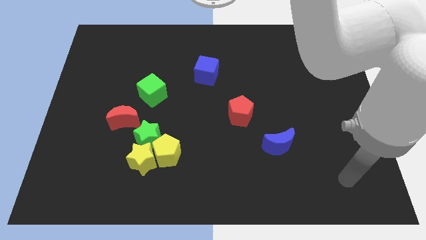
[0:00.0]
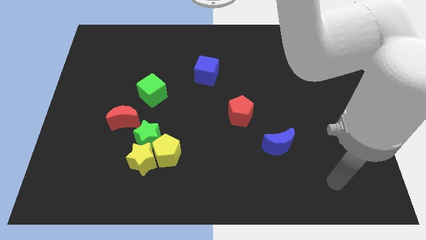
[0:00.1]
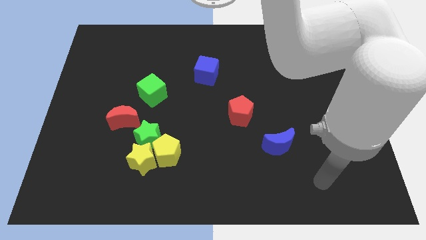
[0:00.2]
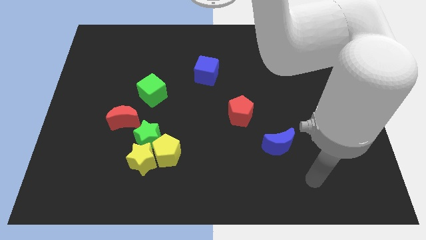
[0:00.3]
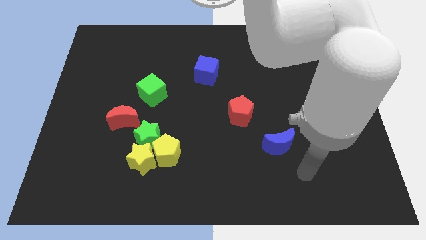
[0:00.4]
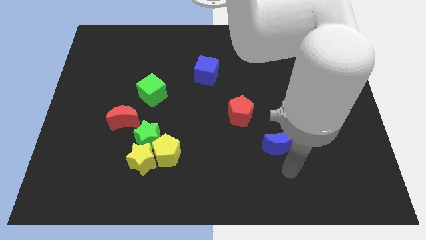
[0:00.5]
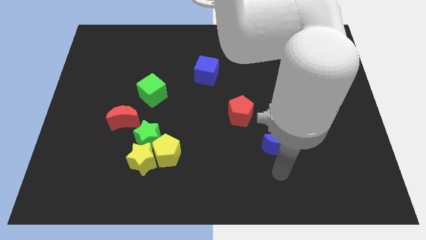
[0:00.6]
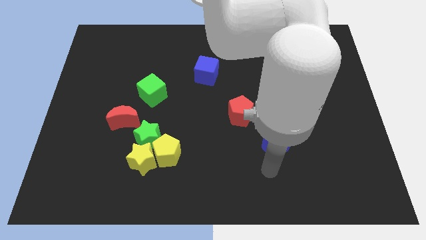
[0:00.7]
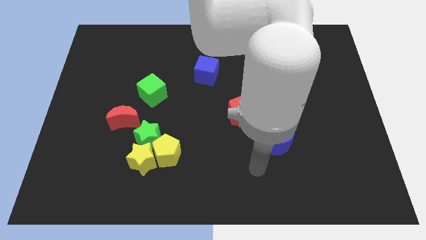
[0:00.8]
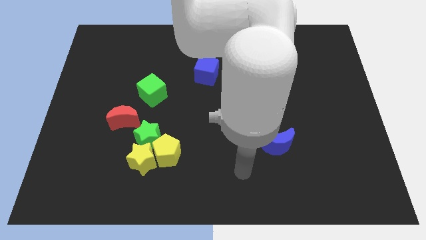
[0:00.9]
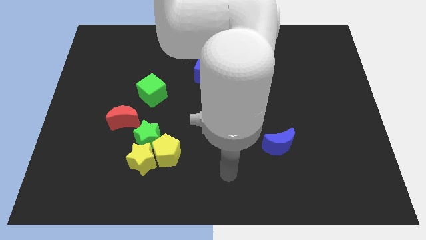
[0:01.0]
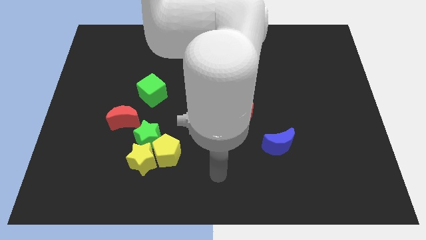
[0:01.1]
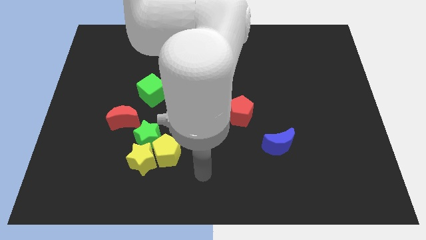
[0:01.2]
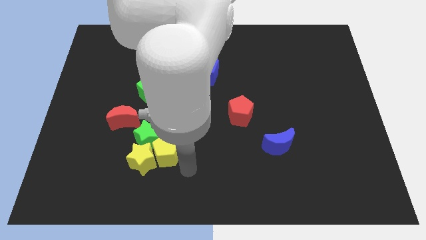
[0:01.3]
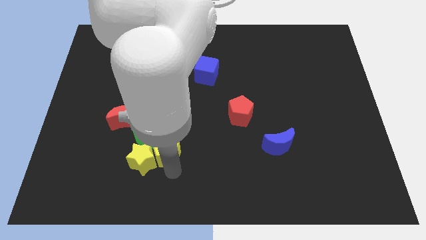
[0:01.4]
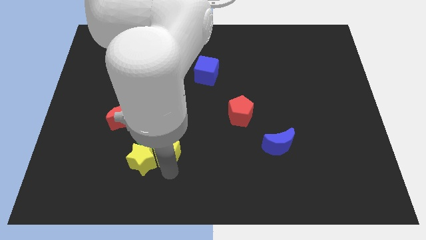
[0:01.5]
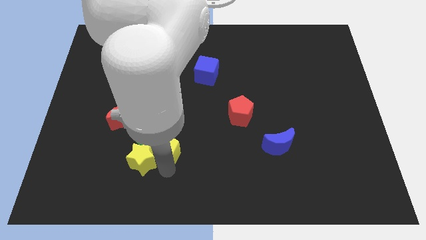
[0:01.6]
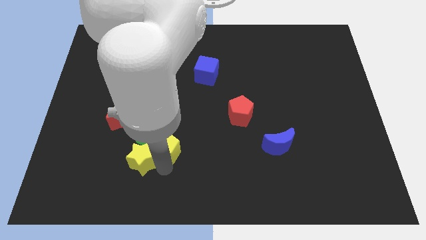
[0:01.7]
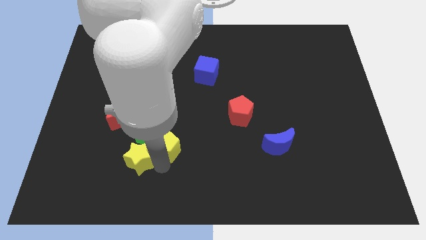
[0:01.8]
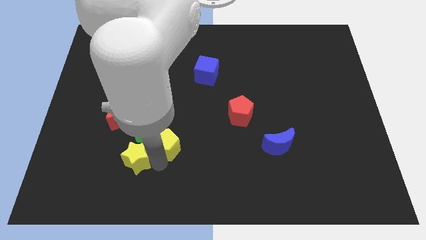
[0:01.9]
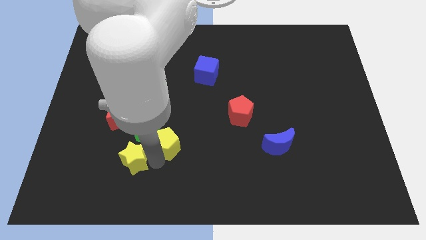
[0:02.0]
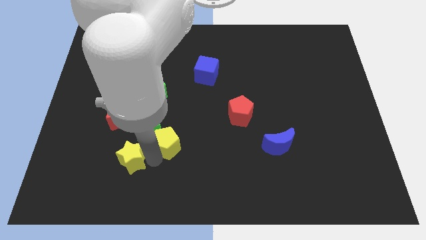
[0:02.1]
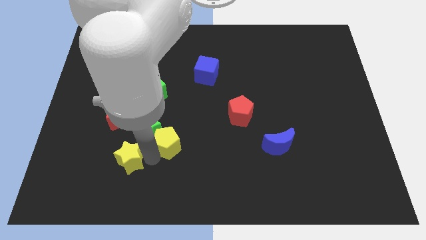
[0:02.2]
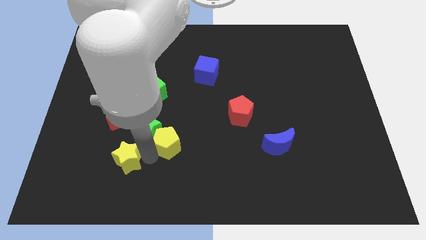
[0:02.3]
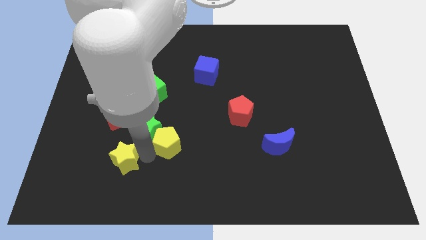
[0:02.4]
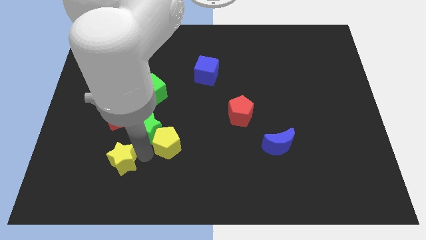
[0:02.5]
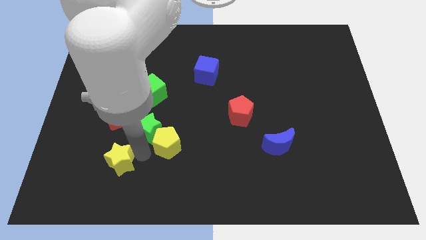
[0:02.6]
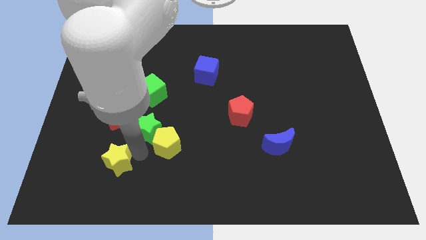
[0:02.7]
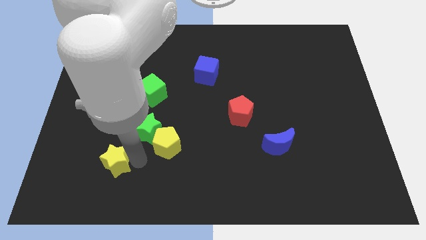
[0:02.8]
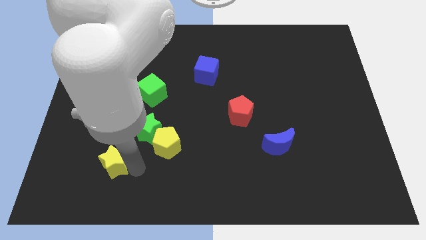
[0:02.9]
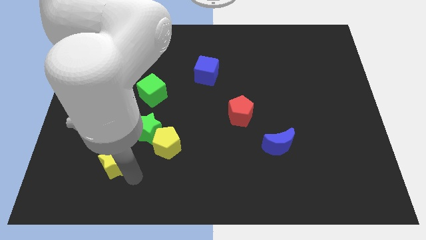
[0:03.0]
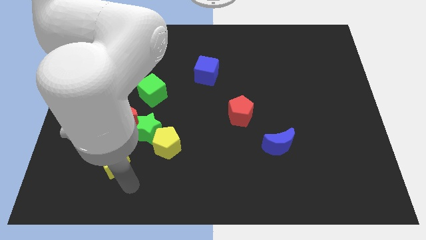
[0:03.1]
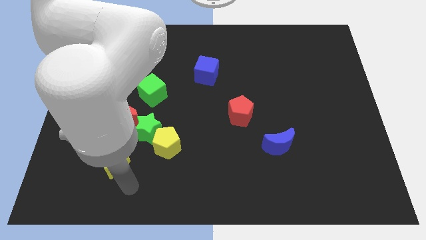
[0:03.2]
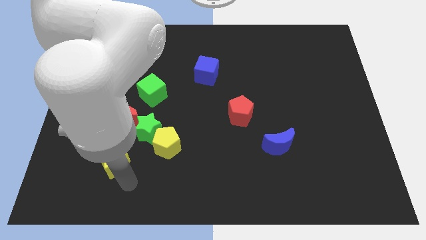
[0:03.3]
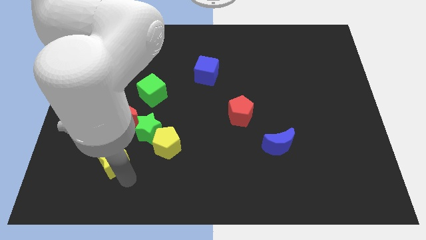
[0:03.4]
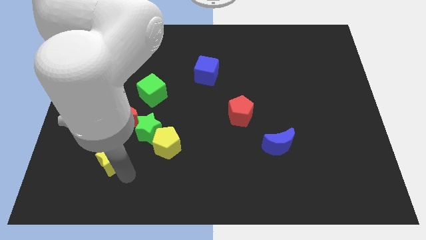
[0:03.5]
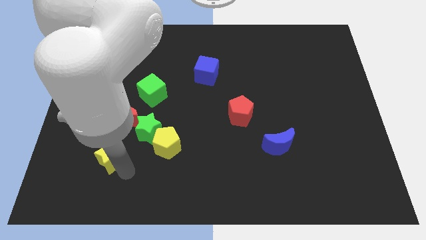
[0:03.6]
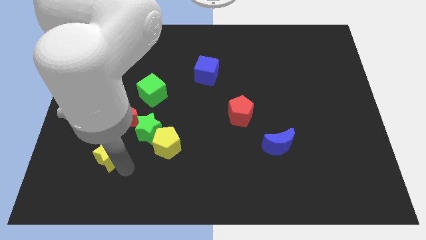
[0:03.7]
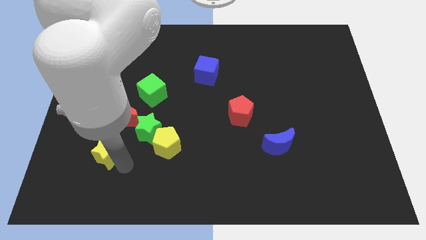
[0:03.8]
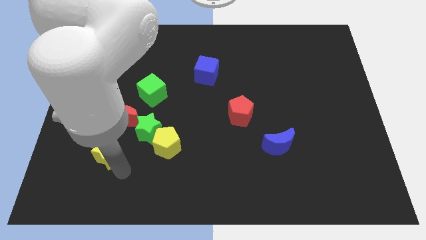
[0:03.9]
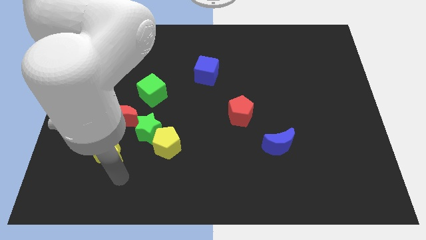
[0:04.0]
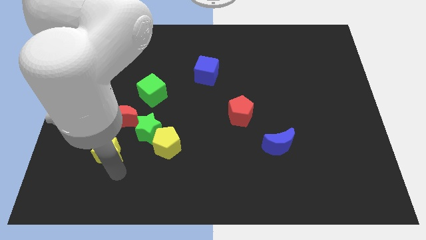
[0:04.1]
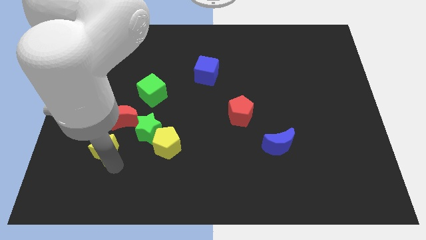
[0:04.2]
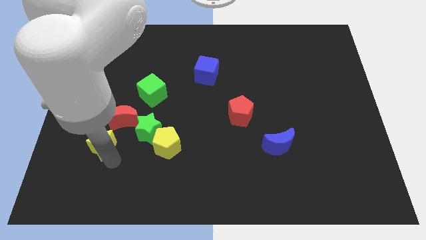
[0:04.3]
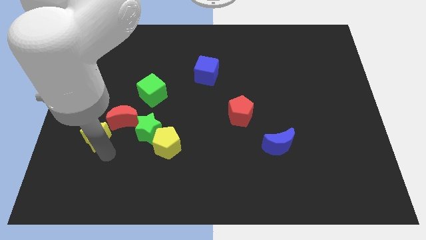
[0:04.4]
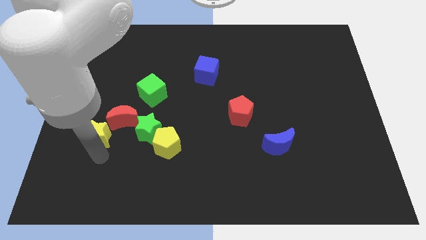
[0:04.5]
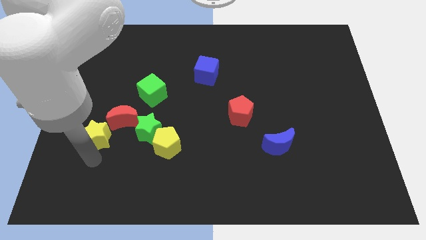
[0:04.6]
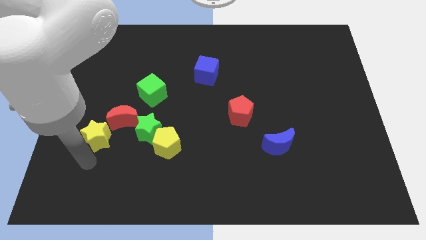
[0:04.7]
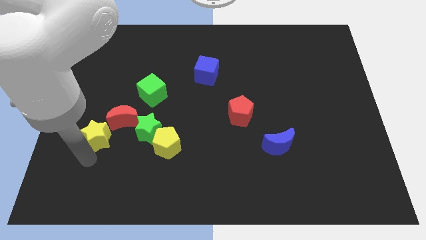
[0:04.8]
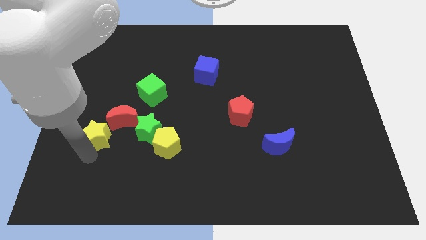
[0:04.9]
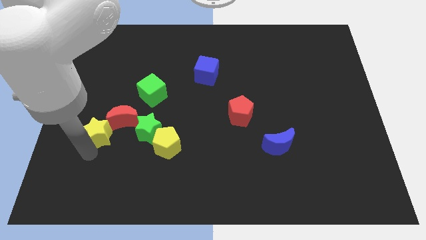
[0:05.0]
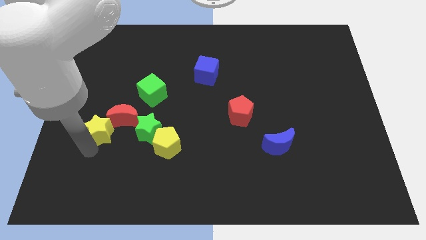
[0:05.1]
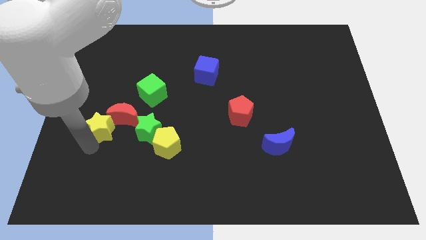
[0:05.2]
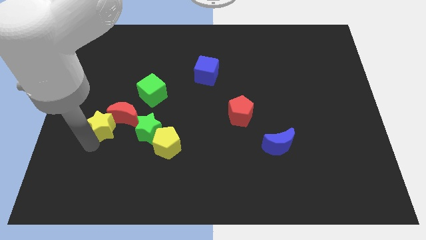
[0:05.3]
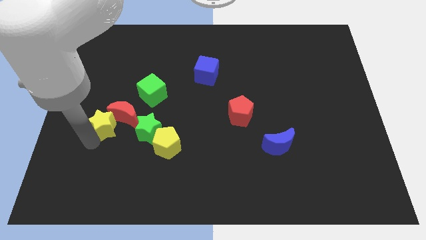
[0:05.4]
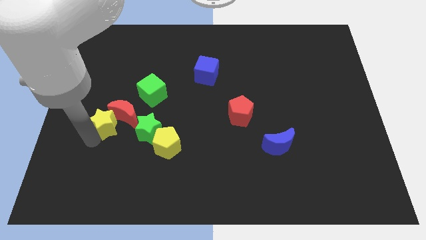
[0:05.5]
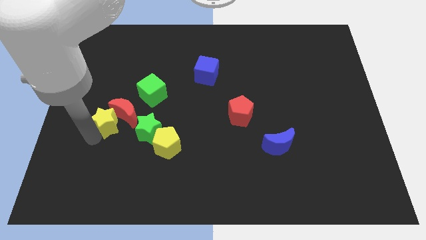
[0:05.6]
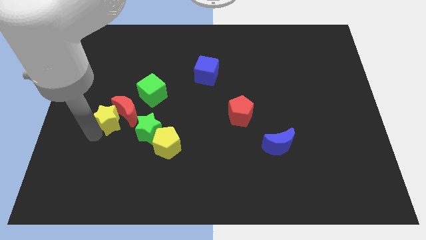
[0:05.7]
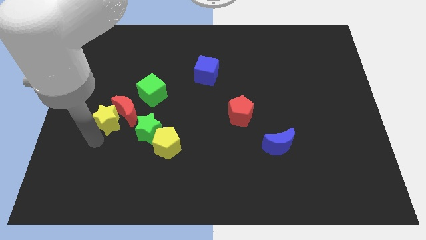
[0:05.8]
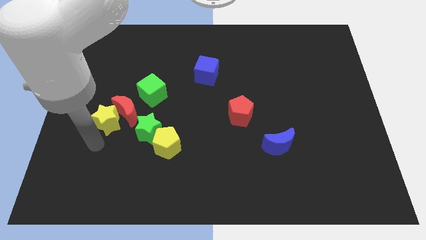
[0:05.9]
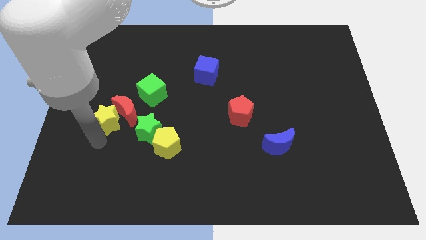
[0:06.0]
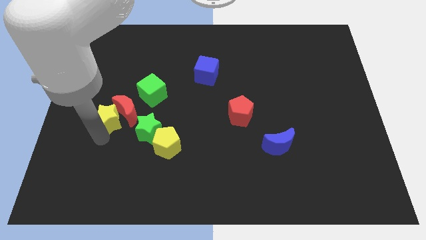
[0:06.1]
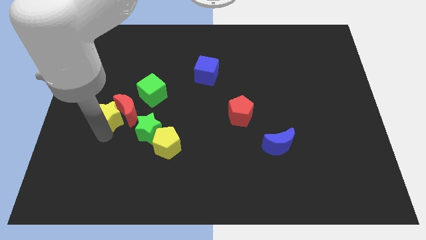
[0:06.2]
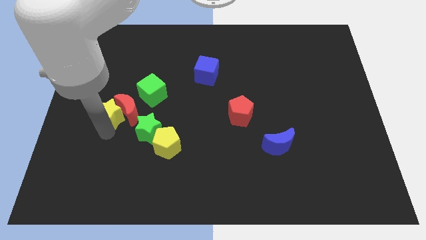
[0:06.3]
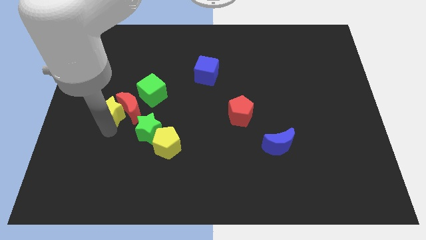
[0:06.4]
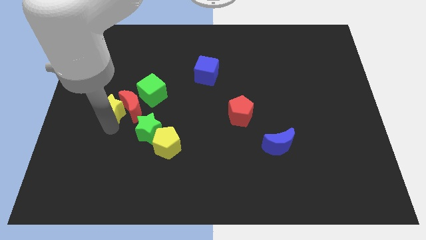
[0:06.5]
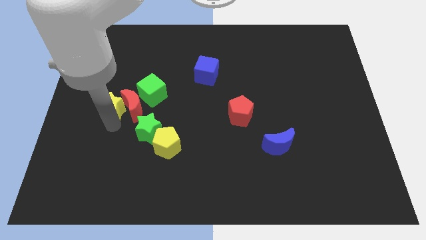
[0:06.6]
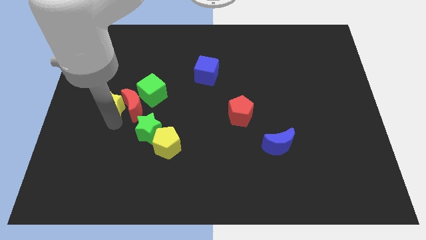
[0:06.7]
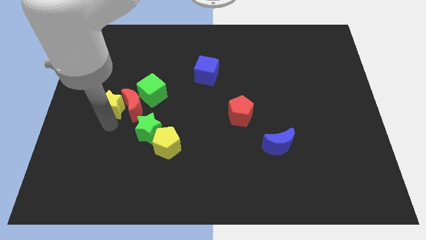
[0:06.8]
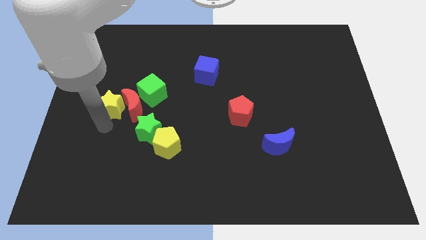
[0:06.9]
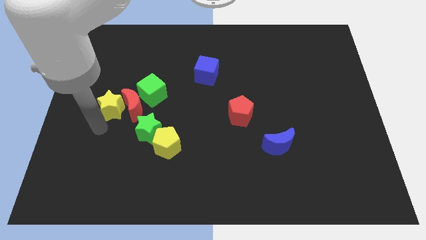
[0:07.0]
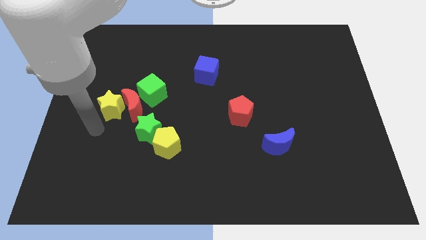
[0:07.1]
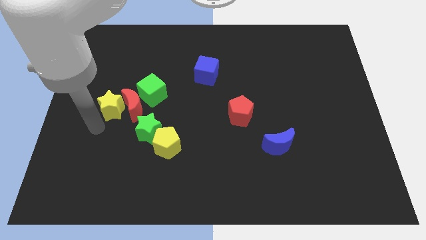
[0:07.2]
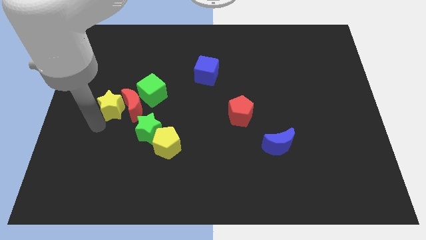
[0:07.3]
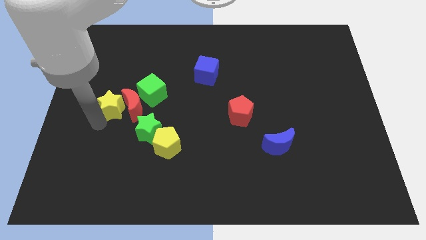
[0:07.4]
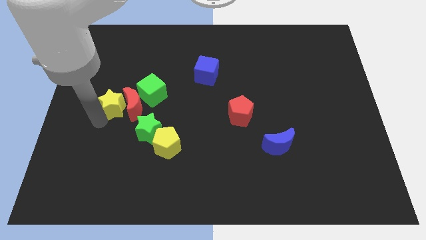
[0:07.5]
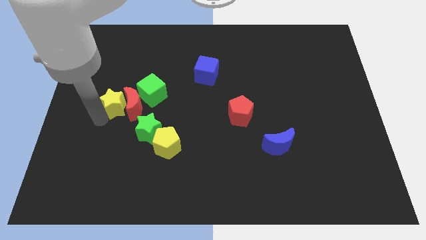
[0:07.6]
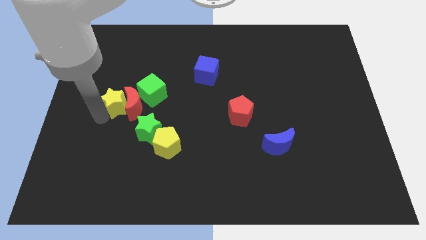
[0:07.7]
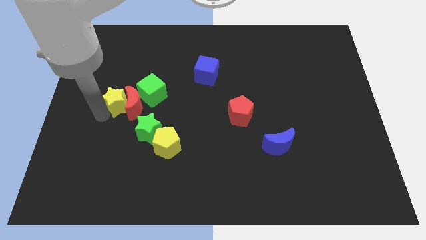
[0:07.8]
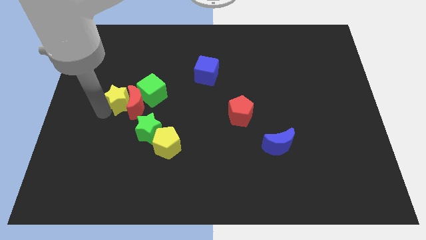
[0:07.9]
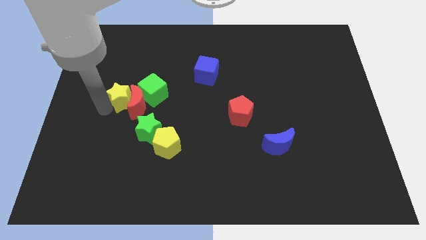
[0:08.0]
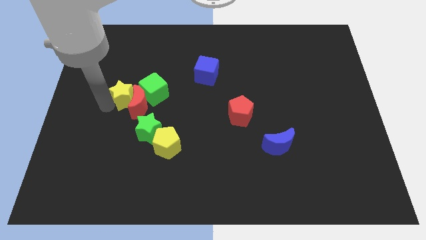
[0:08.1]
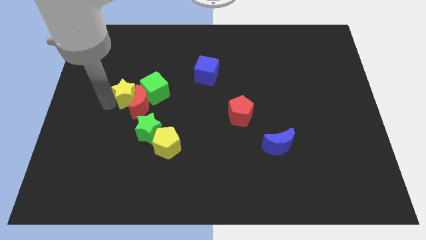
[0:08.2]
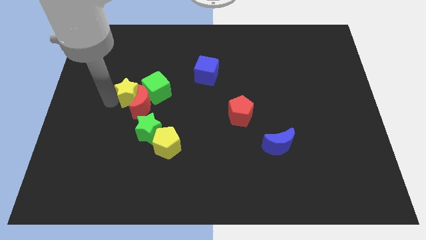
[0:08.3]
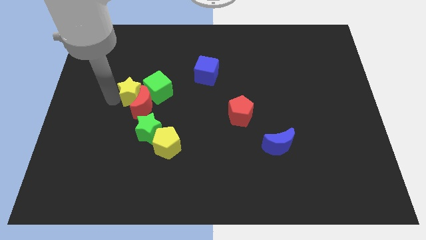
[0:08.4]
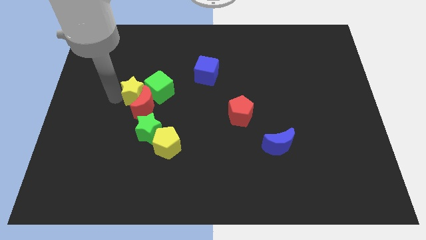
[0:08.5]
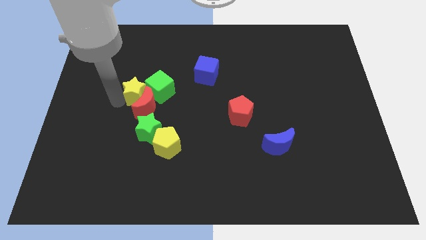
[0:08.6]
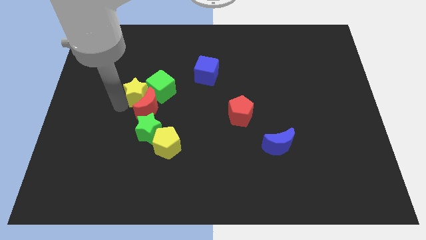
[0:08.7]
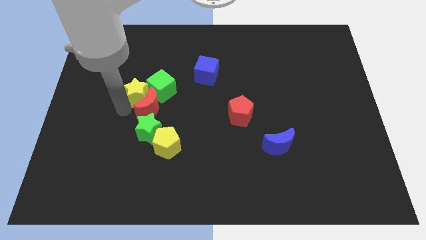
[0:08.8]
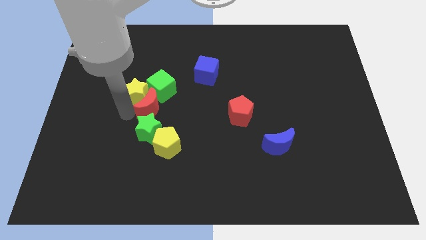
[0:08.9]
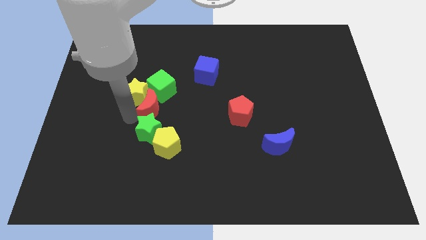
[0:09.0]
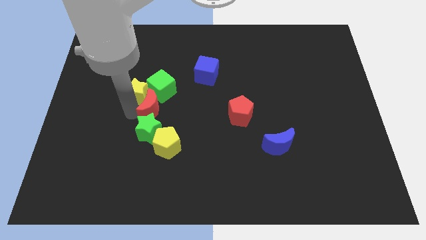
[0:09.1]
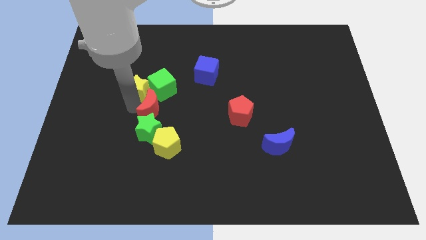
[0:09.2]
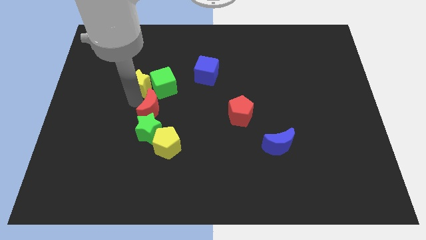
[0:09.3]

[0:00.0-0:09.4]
slide the yellow star to the top left side of the green cube
